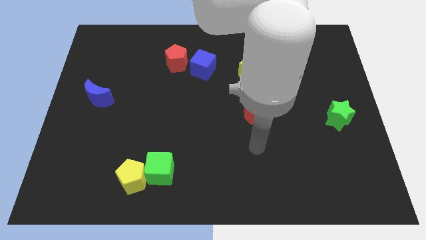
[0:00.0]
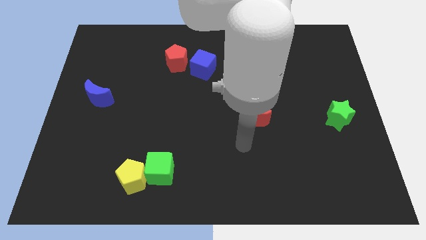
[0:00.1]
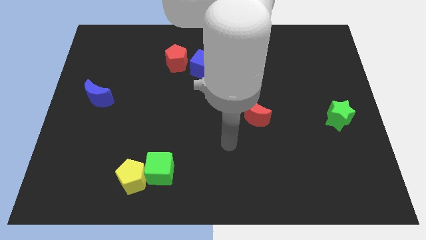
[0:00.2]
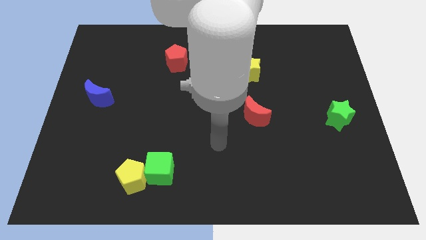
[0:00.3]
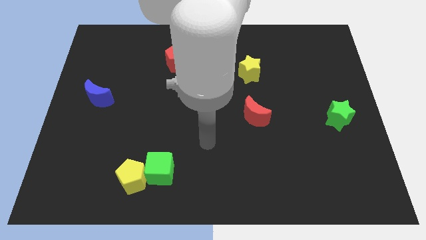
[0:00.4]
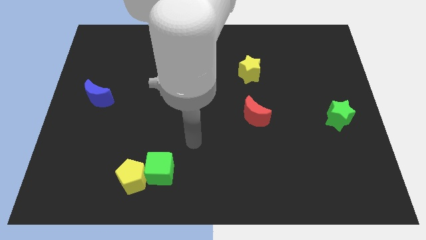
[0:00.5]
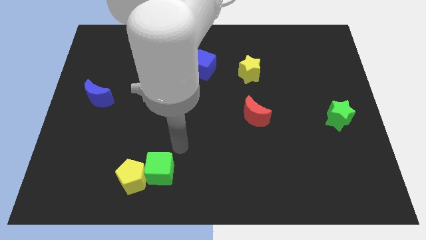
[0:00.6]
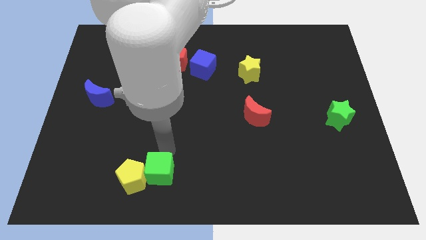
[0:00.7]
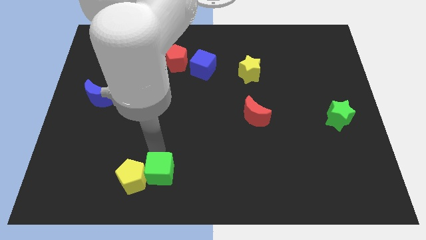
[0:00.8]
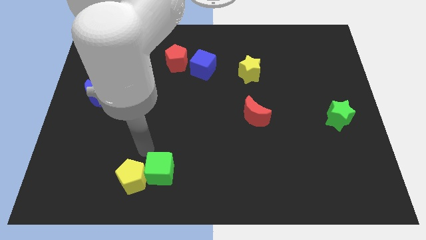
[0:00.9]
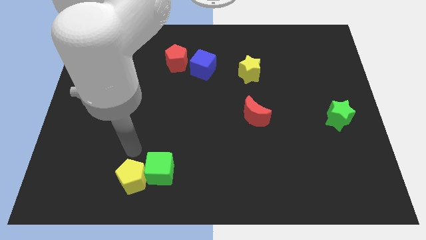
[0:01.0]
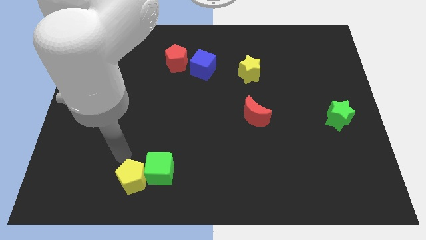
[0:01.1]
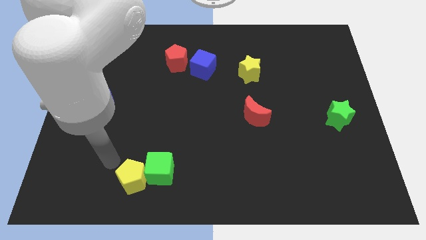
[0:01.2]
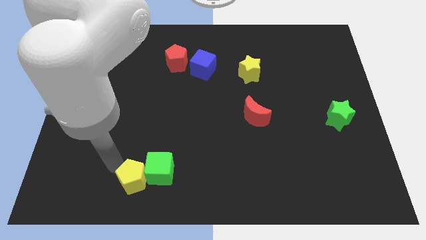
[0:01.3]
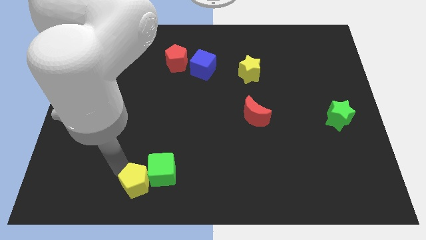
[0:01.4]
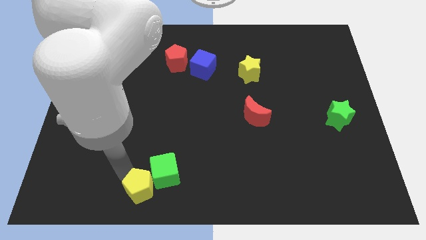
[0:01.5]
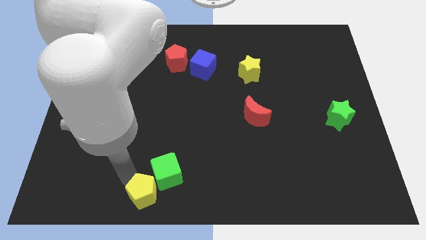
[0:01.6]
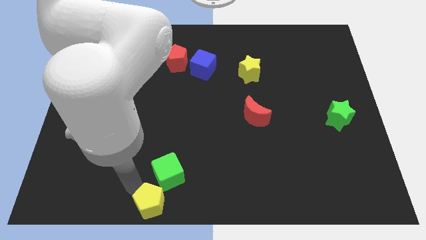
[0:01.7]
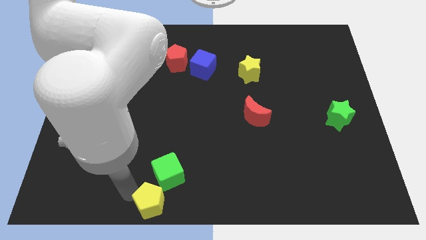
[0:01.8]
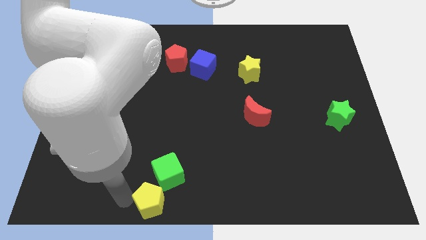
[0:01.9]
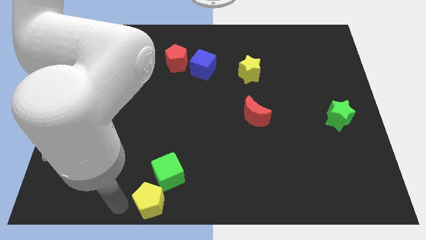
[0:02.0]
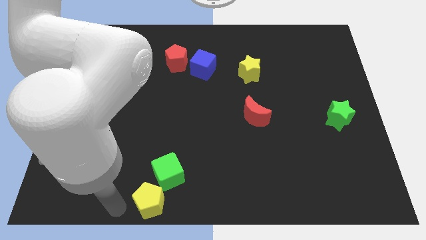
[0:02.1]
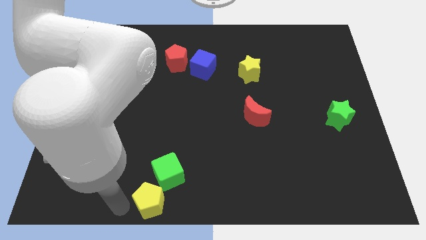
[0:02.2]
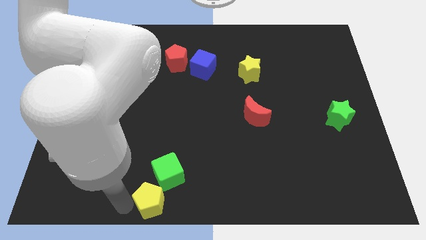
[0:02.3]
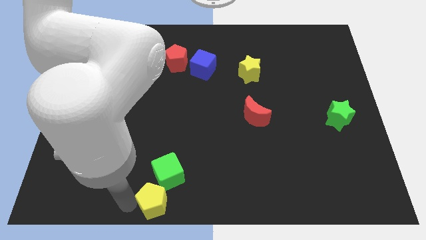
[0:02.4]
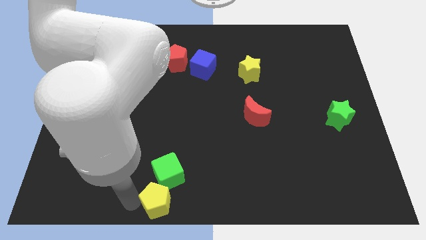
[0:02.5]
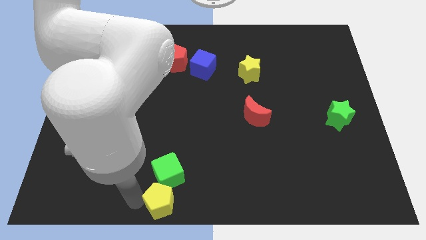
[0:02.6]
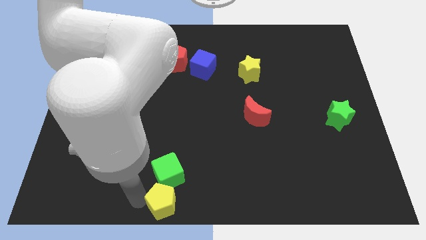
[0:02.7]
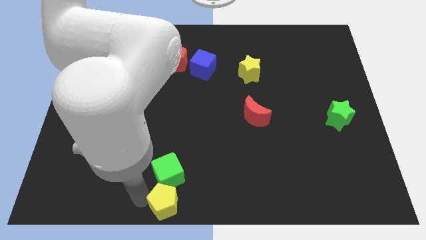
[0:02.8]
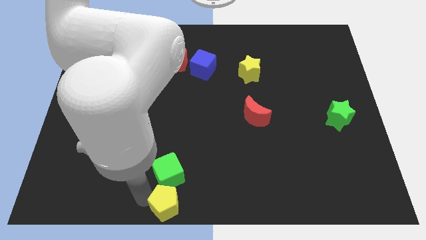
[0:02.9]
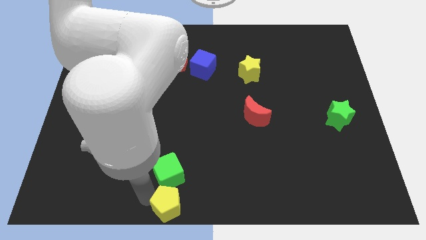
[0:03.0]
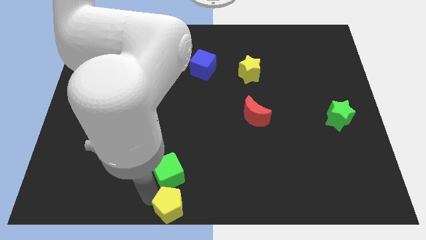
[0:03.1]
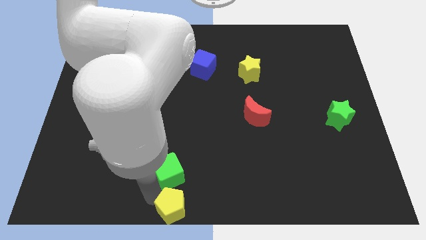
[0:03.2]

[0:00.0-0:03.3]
slide the yellow pentagon right slightly

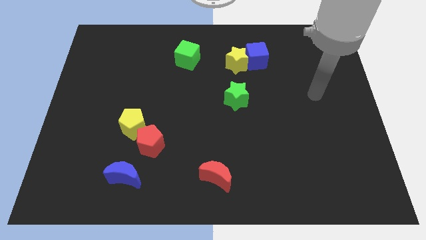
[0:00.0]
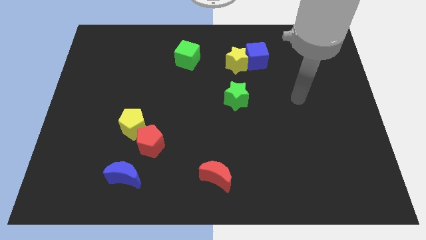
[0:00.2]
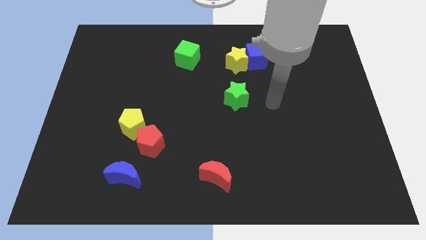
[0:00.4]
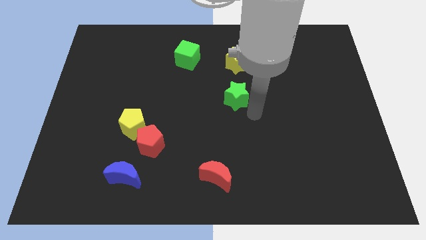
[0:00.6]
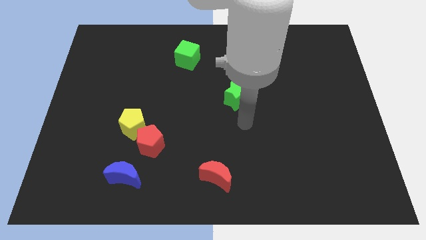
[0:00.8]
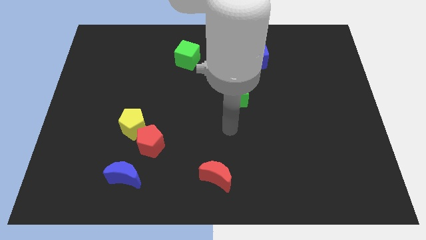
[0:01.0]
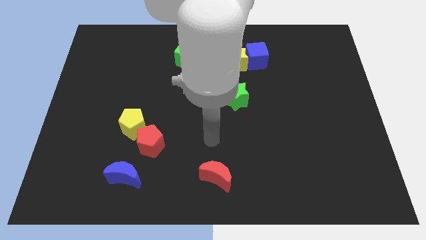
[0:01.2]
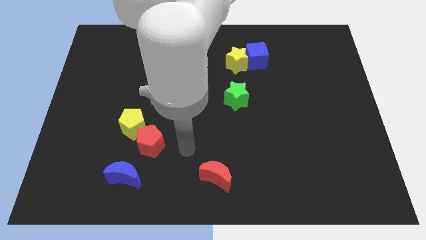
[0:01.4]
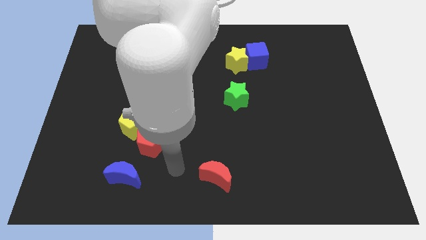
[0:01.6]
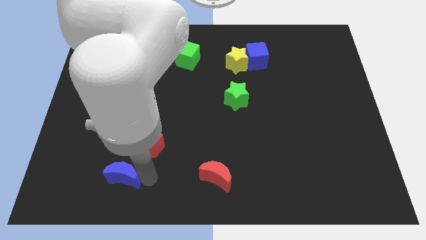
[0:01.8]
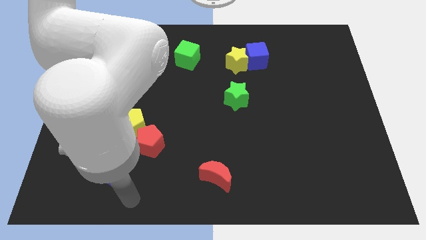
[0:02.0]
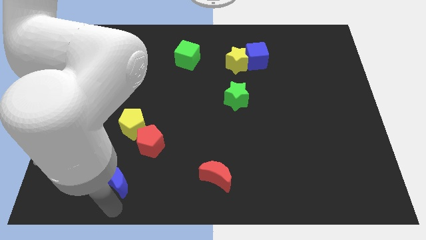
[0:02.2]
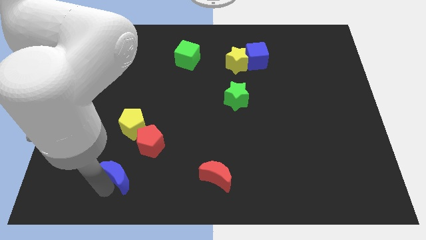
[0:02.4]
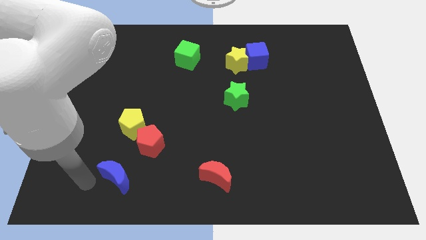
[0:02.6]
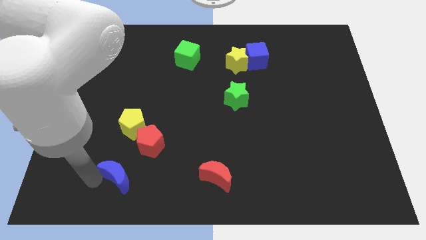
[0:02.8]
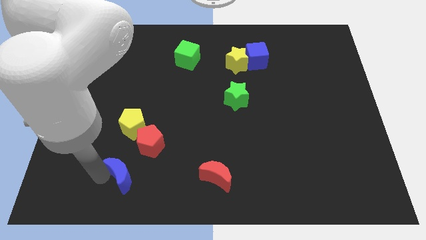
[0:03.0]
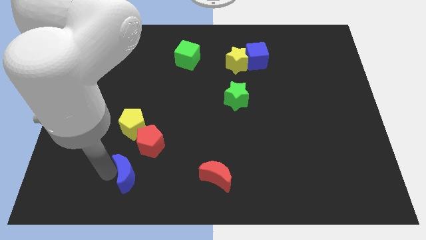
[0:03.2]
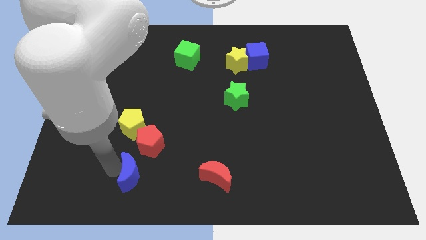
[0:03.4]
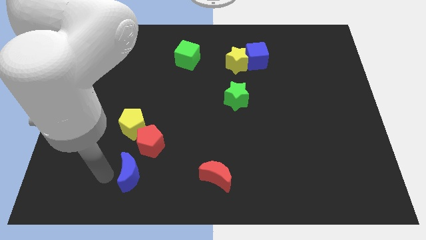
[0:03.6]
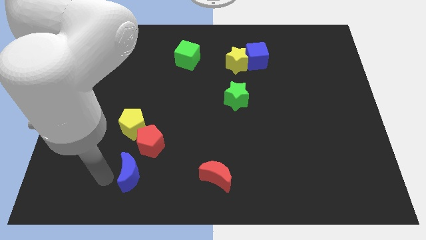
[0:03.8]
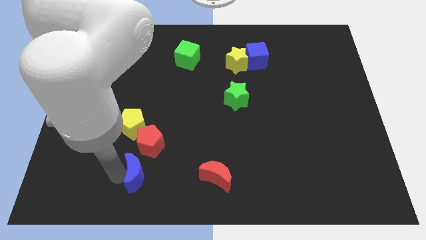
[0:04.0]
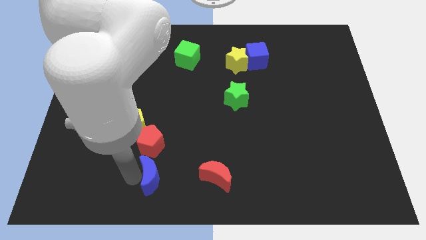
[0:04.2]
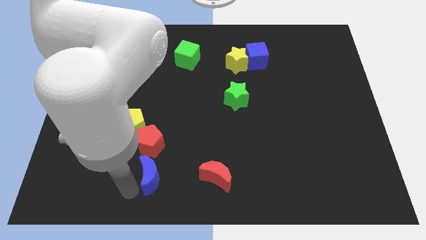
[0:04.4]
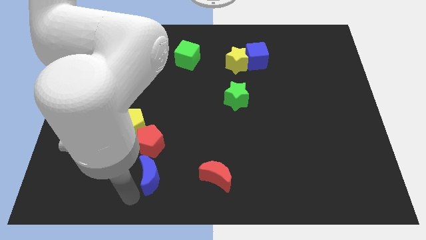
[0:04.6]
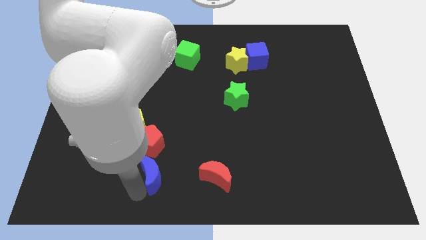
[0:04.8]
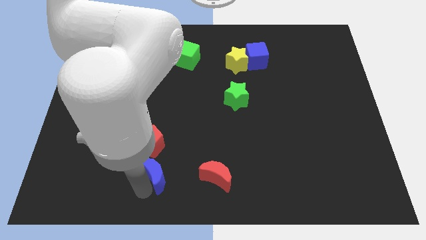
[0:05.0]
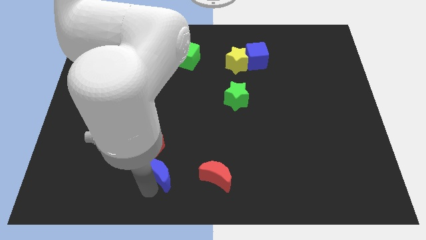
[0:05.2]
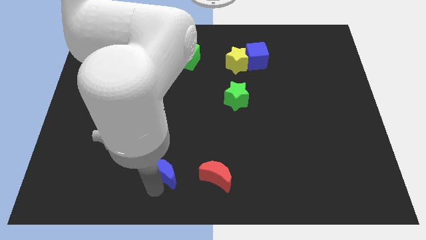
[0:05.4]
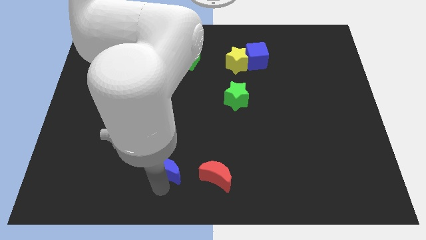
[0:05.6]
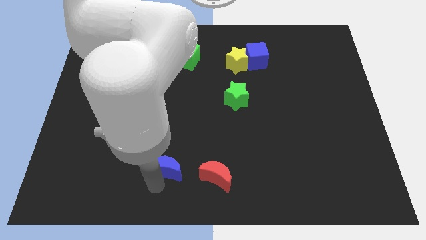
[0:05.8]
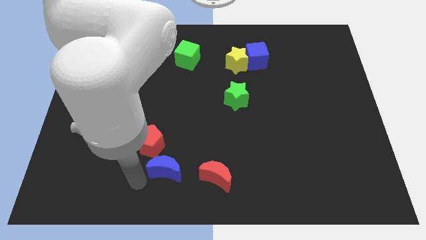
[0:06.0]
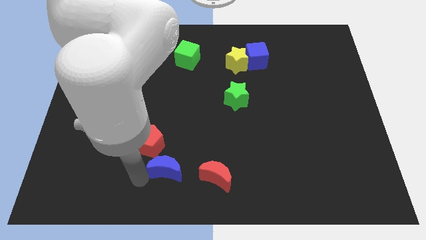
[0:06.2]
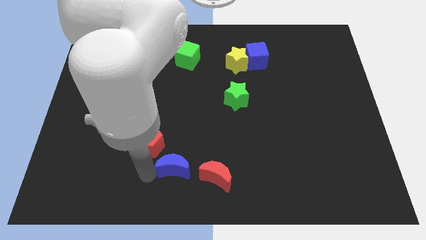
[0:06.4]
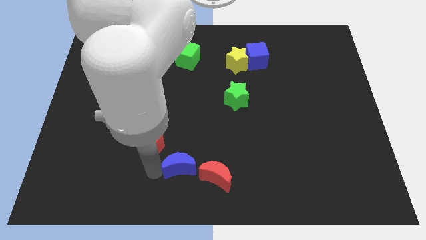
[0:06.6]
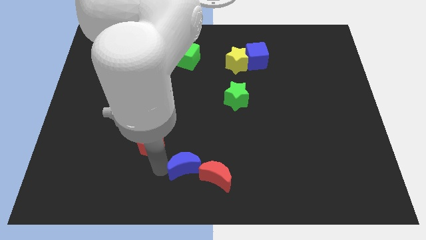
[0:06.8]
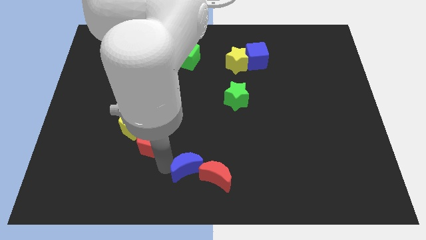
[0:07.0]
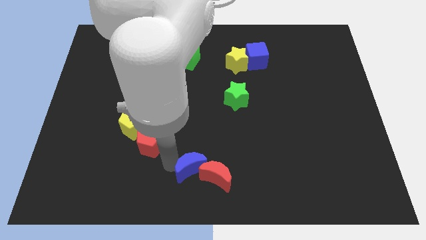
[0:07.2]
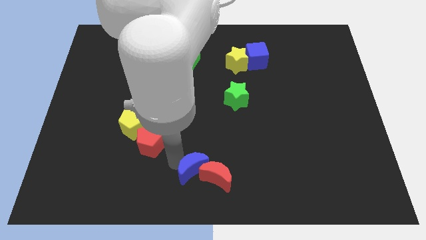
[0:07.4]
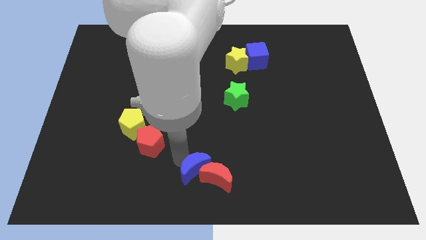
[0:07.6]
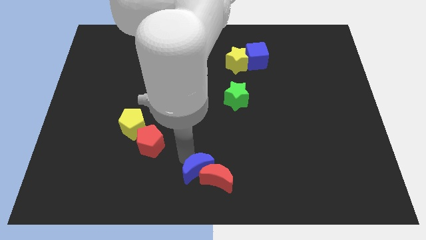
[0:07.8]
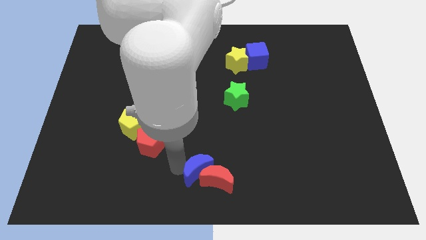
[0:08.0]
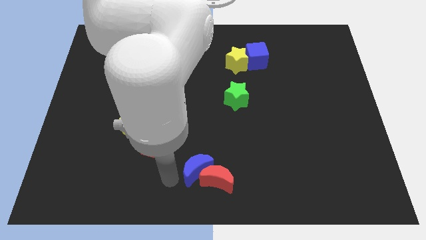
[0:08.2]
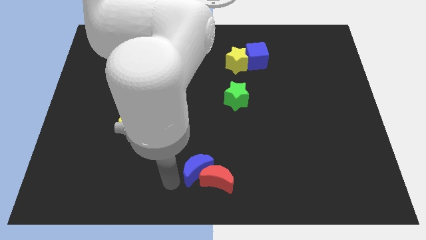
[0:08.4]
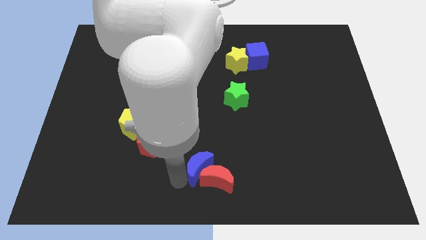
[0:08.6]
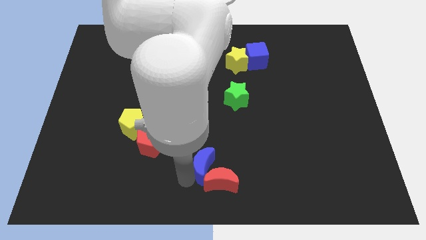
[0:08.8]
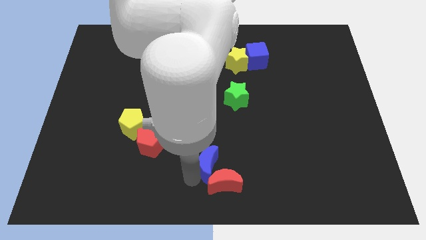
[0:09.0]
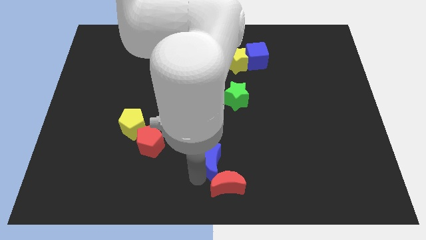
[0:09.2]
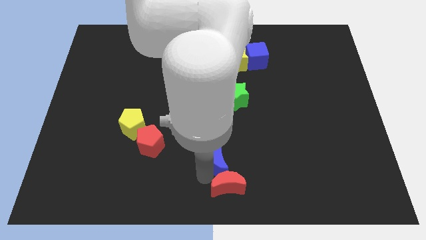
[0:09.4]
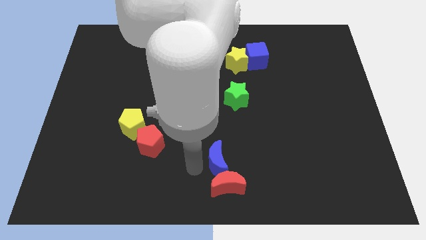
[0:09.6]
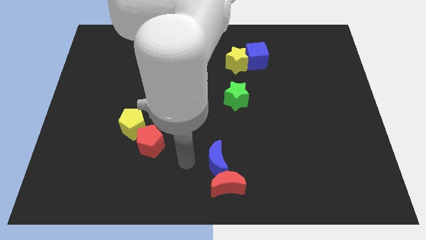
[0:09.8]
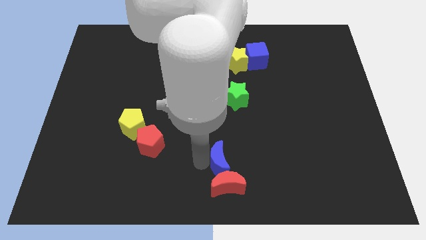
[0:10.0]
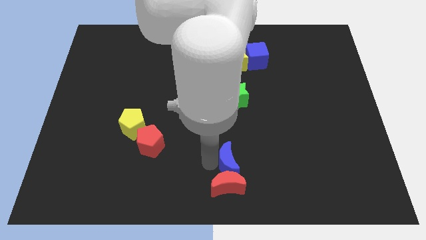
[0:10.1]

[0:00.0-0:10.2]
move the blue moon to the right
